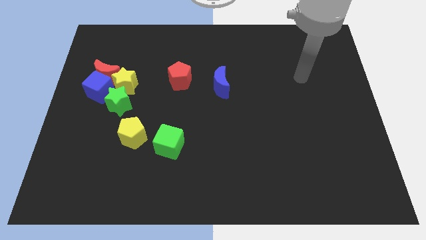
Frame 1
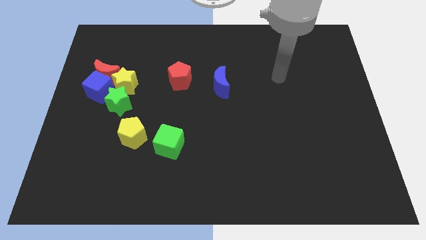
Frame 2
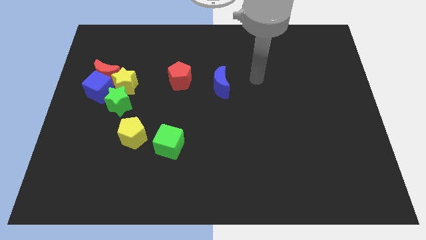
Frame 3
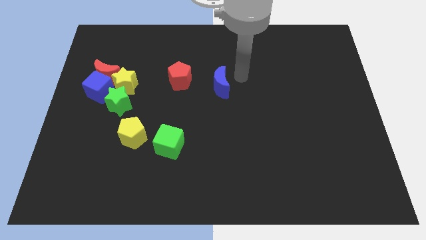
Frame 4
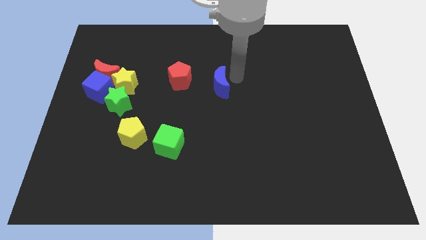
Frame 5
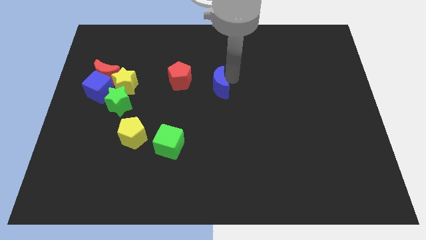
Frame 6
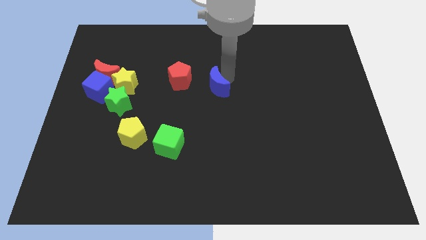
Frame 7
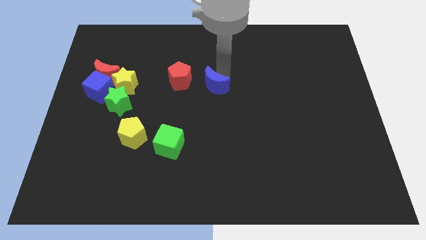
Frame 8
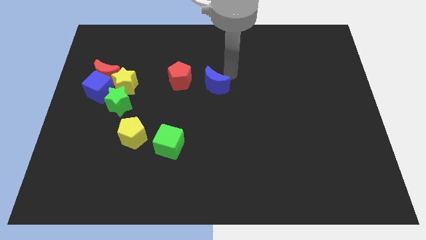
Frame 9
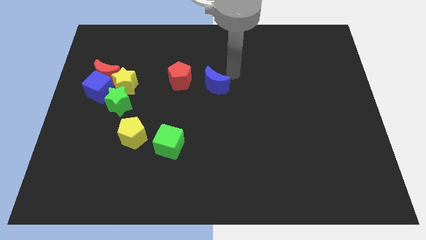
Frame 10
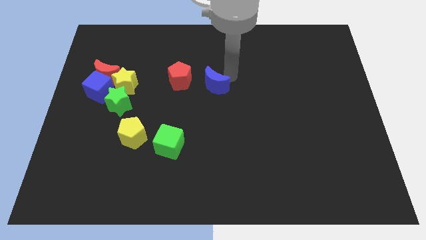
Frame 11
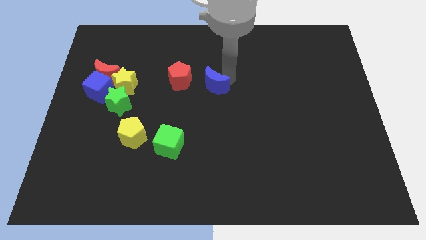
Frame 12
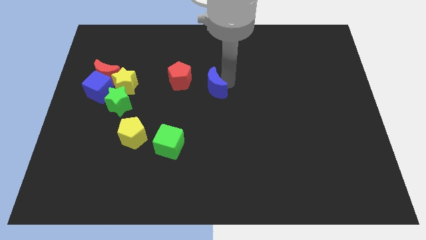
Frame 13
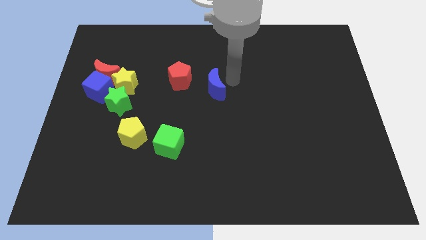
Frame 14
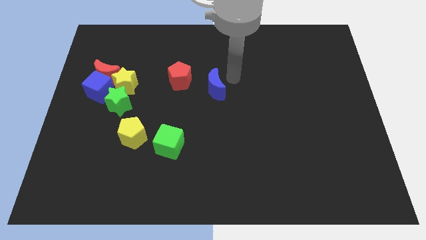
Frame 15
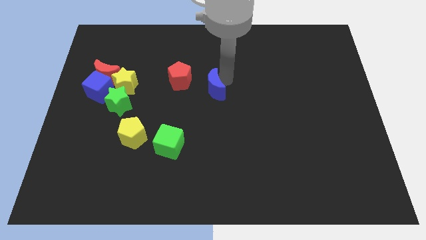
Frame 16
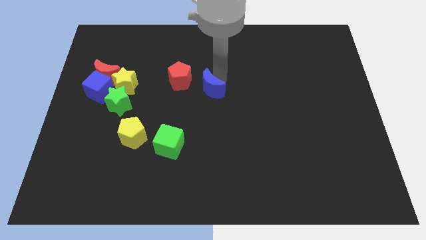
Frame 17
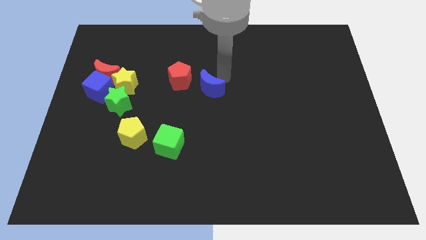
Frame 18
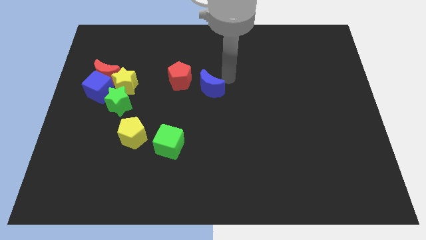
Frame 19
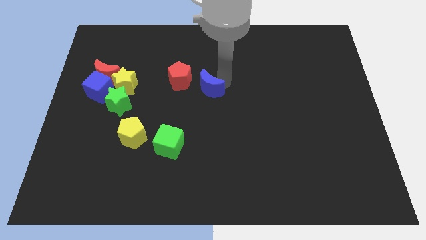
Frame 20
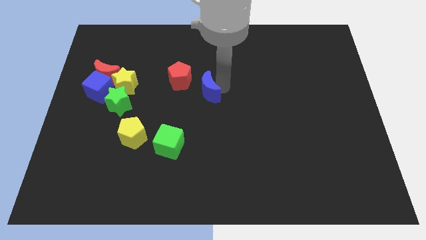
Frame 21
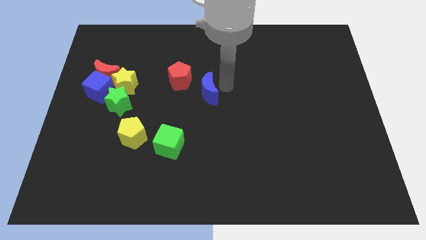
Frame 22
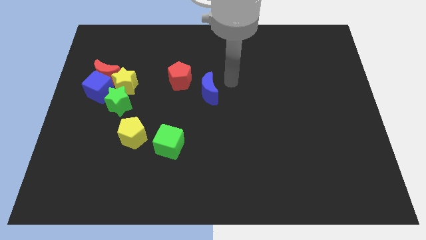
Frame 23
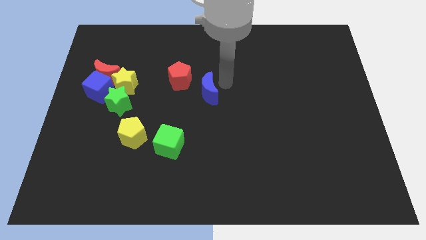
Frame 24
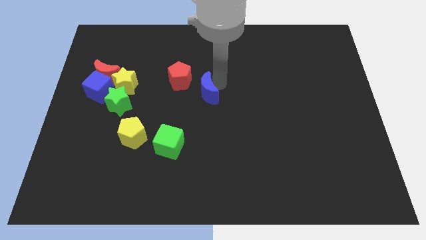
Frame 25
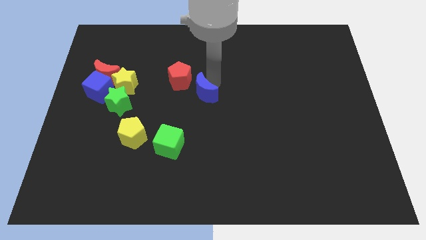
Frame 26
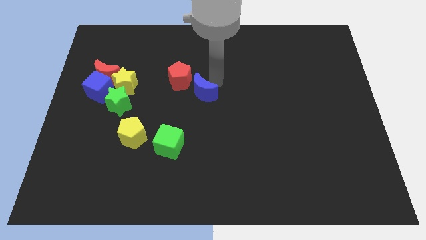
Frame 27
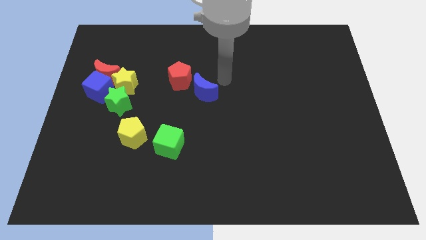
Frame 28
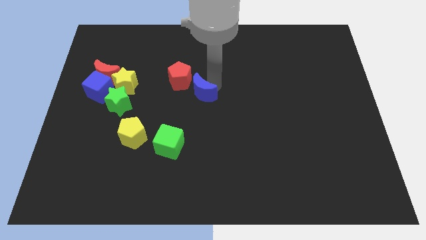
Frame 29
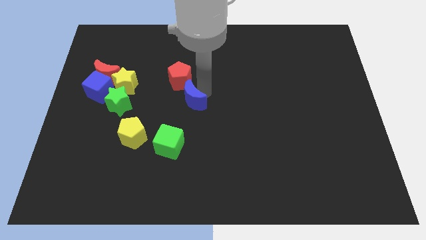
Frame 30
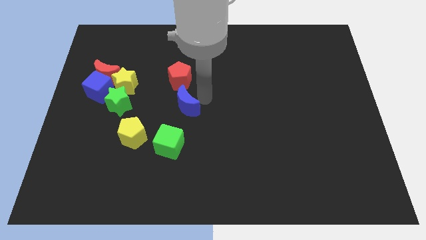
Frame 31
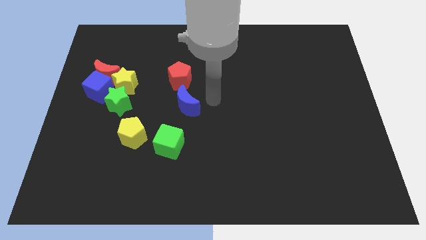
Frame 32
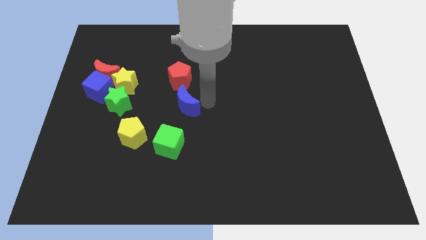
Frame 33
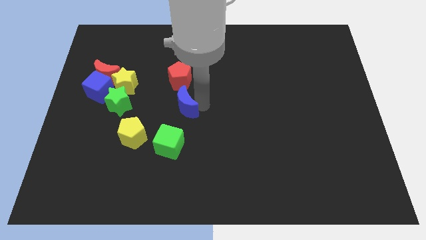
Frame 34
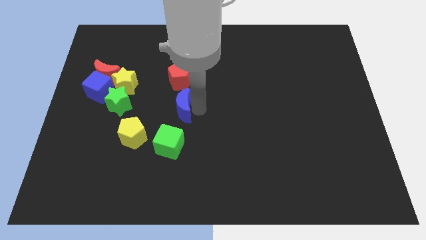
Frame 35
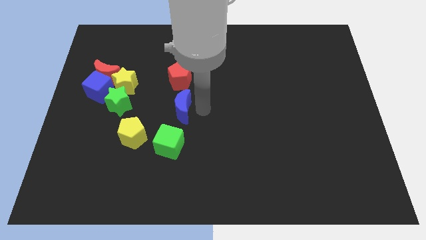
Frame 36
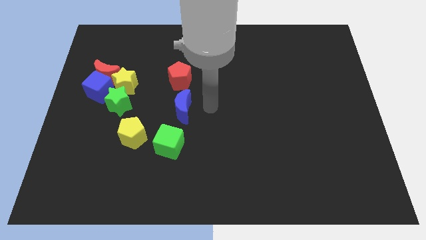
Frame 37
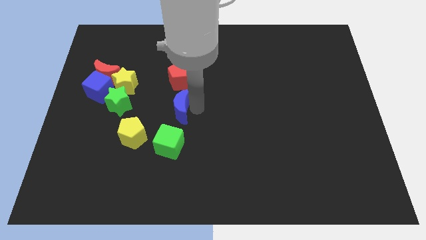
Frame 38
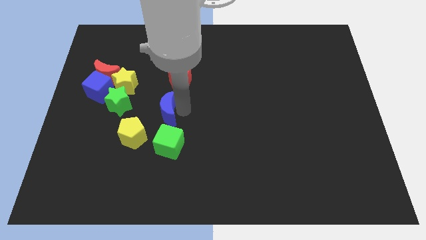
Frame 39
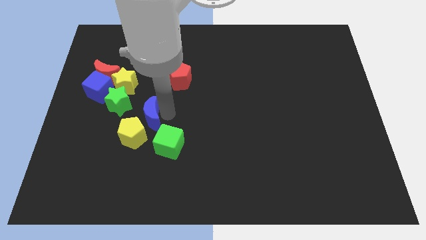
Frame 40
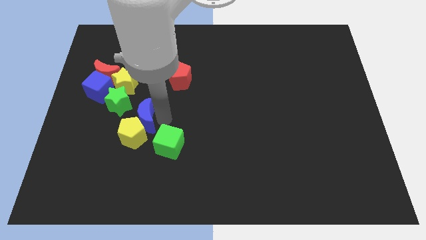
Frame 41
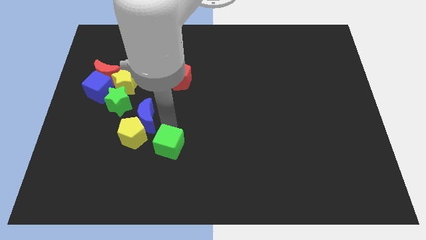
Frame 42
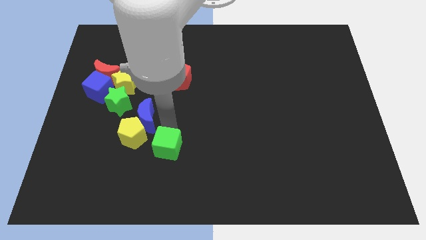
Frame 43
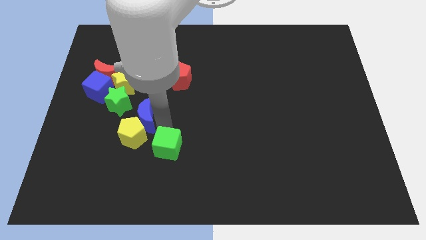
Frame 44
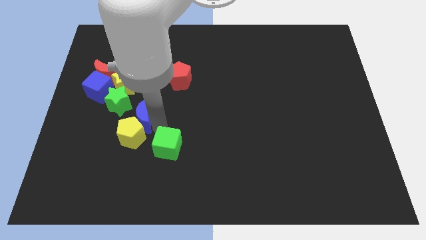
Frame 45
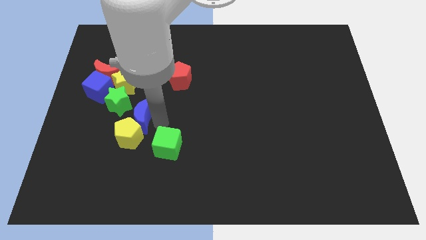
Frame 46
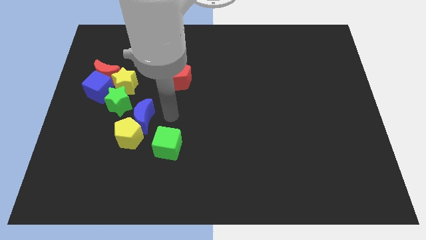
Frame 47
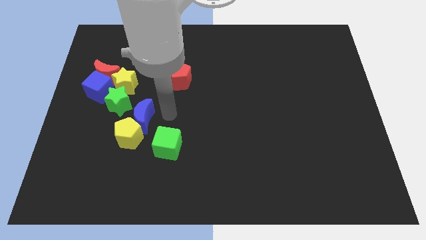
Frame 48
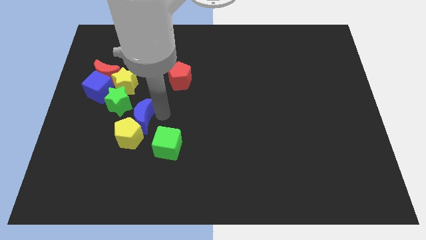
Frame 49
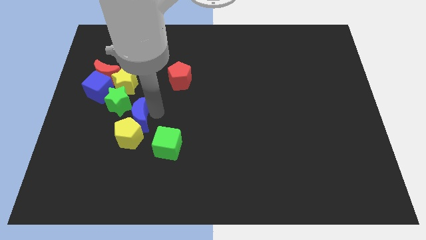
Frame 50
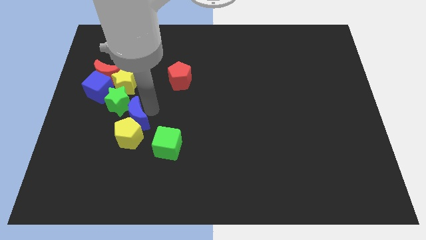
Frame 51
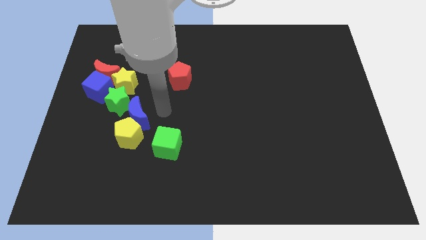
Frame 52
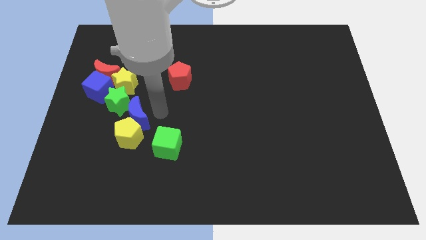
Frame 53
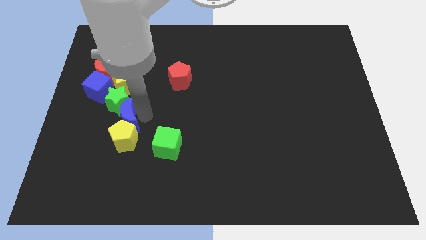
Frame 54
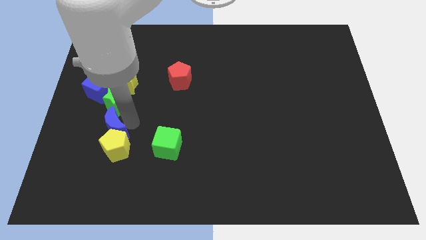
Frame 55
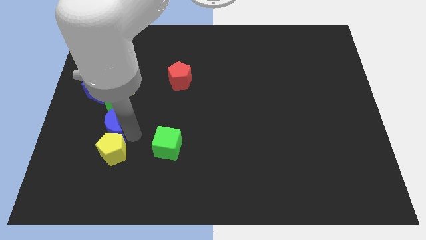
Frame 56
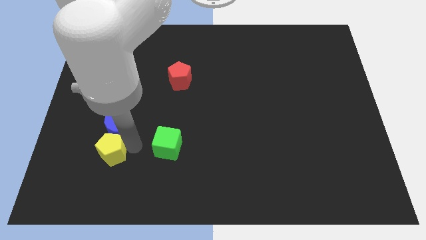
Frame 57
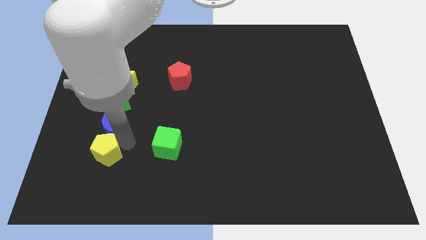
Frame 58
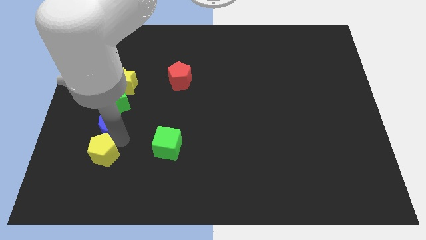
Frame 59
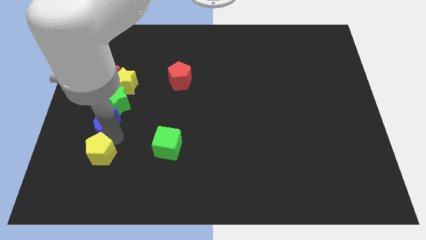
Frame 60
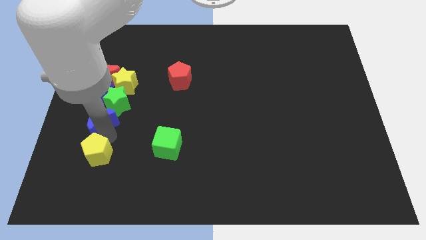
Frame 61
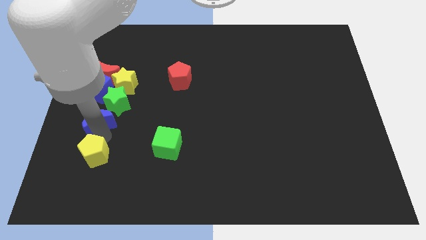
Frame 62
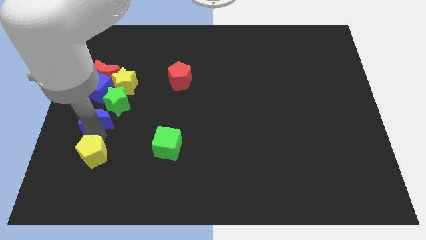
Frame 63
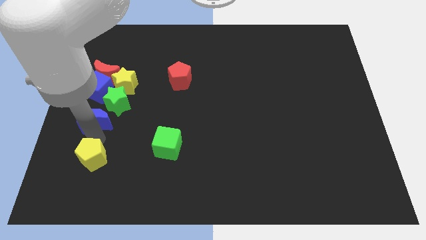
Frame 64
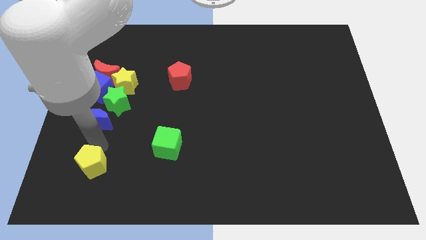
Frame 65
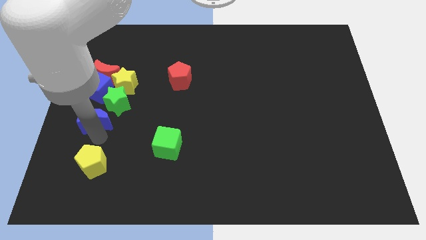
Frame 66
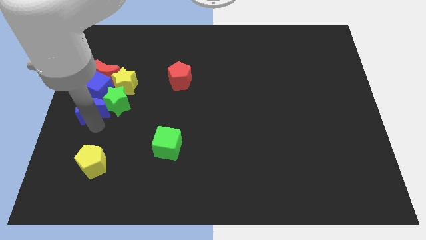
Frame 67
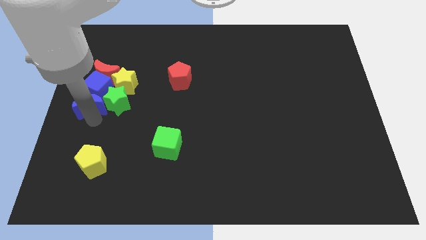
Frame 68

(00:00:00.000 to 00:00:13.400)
push the blue moon close to the blue cube

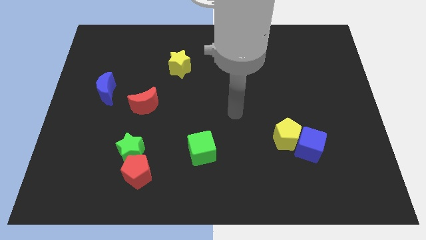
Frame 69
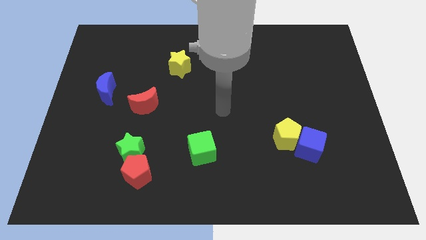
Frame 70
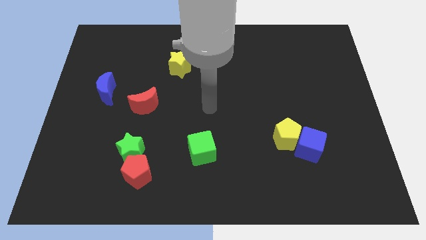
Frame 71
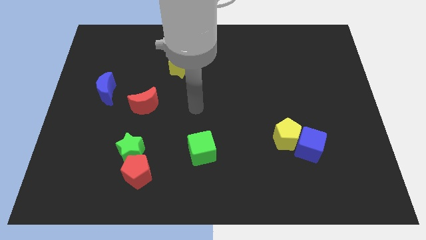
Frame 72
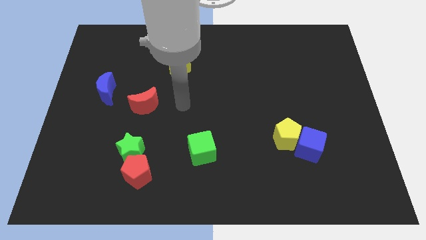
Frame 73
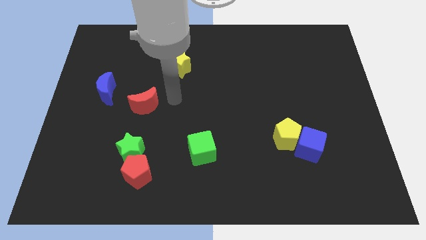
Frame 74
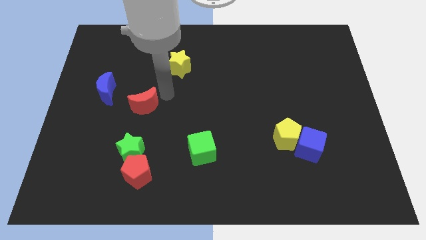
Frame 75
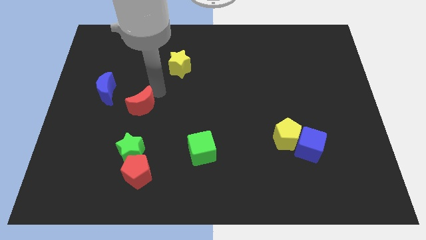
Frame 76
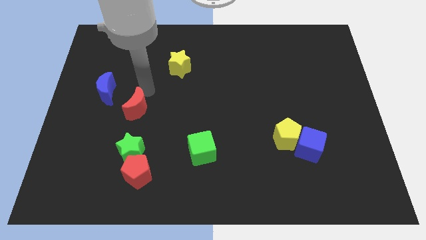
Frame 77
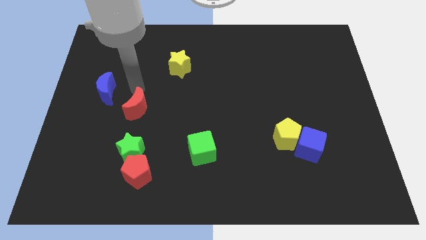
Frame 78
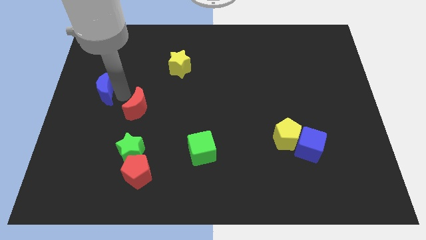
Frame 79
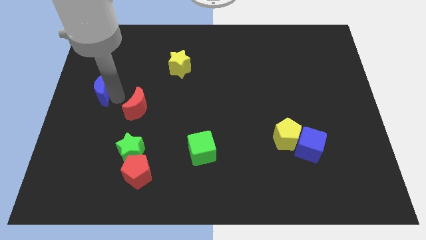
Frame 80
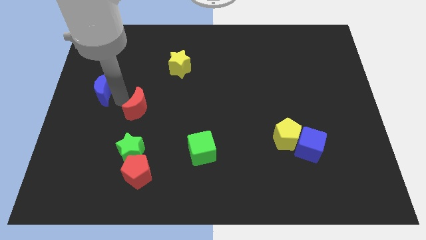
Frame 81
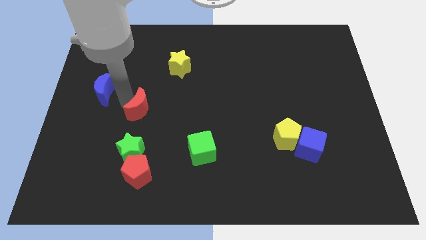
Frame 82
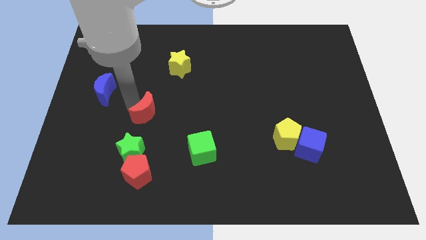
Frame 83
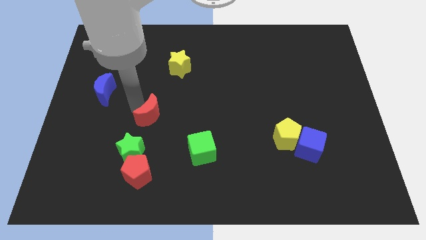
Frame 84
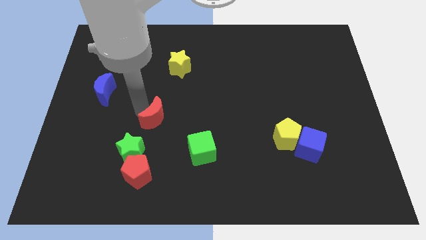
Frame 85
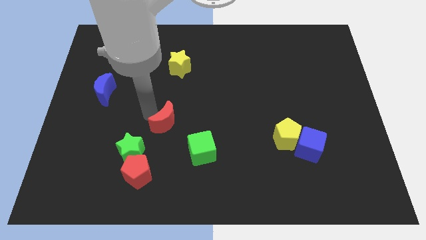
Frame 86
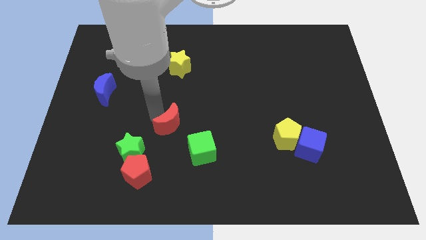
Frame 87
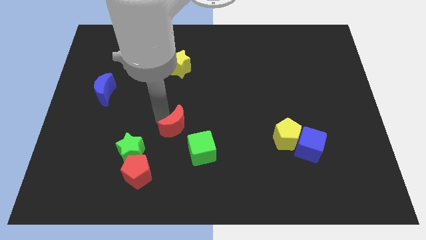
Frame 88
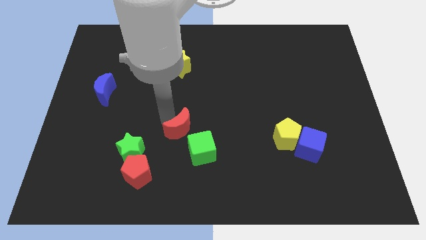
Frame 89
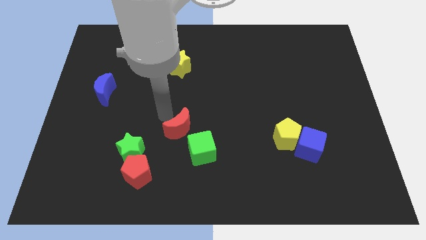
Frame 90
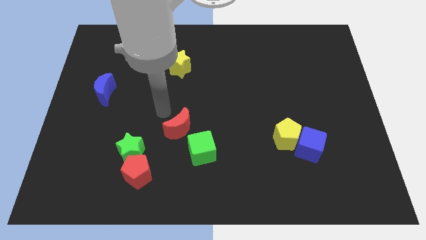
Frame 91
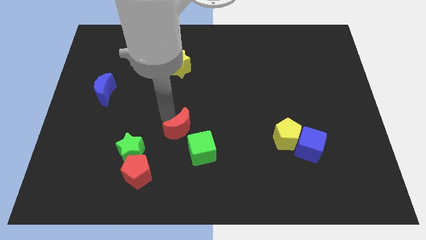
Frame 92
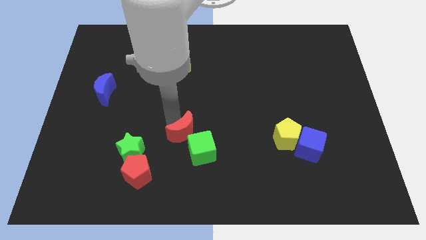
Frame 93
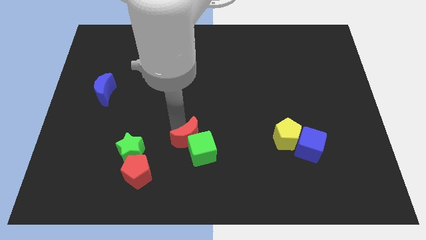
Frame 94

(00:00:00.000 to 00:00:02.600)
put the red moon towards the green cube
